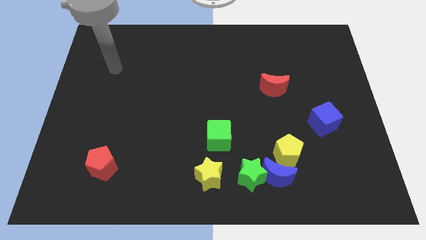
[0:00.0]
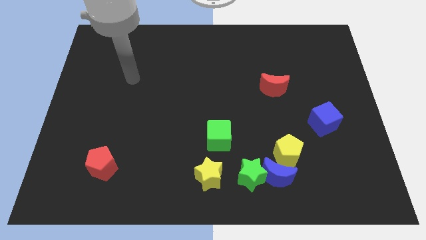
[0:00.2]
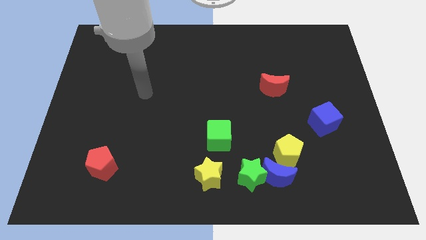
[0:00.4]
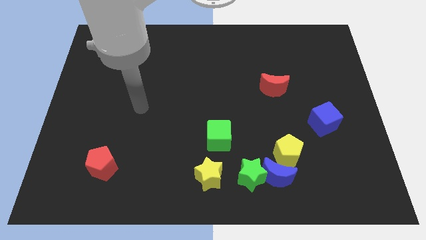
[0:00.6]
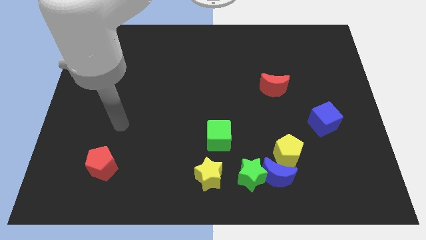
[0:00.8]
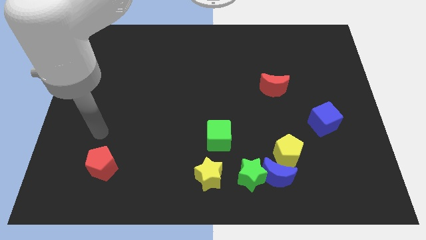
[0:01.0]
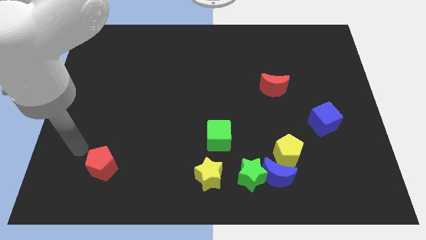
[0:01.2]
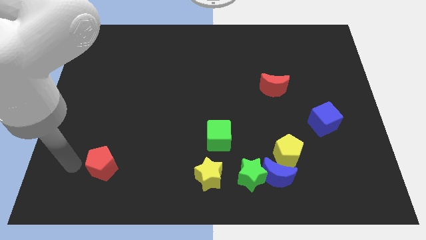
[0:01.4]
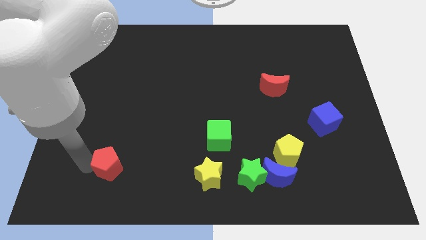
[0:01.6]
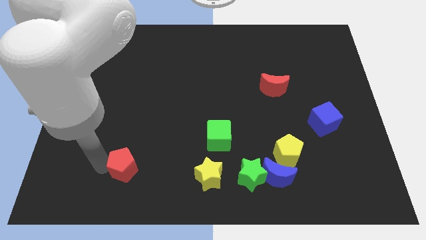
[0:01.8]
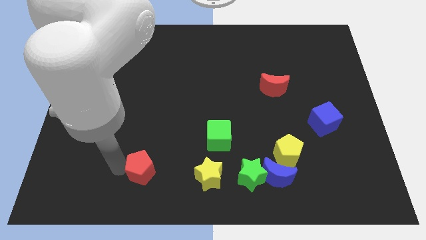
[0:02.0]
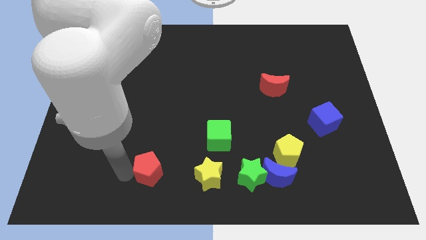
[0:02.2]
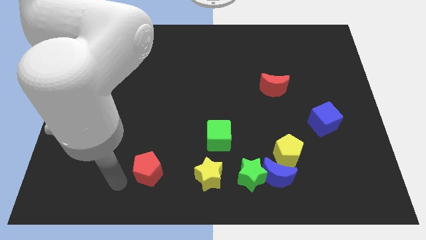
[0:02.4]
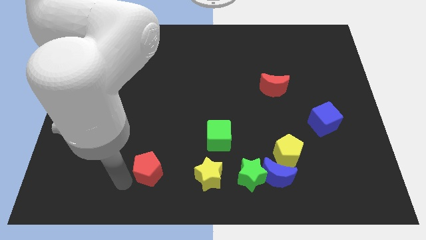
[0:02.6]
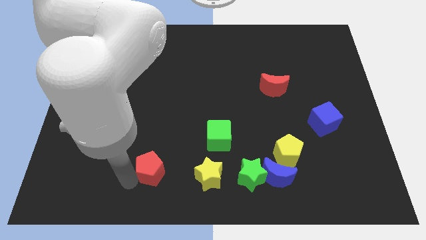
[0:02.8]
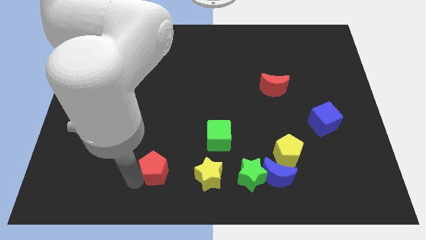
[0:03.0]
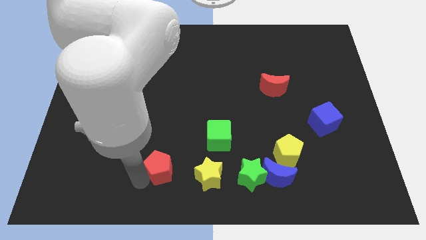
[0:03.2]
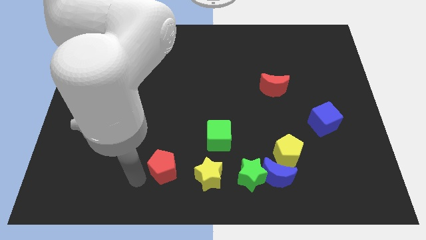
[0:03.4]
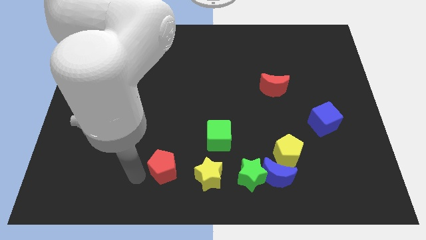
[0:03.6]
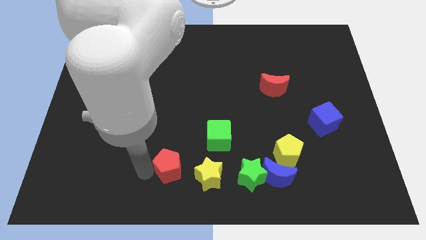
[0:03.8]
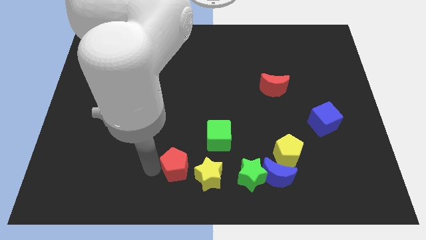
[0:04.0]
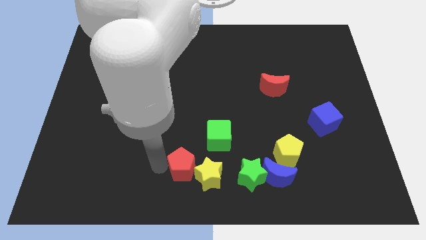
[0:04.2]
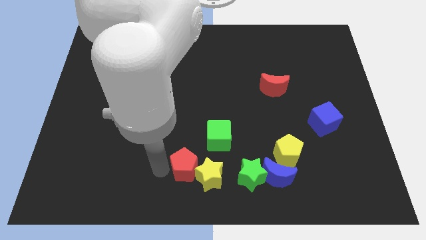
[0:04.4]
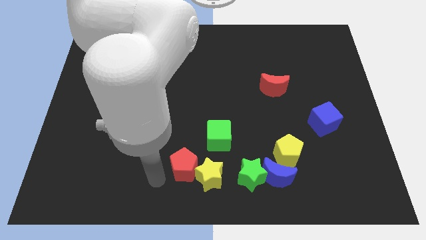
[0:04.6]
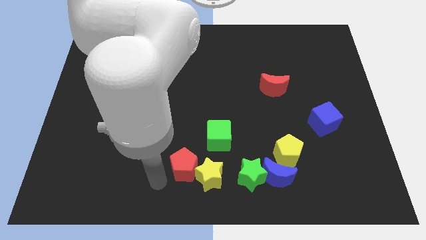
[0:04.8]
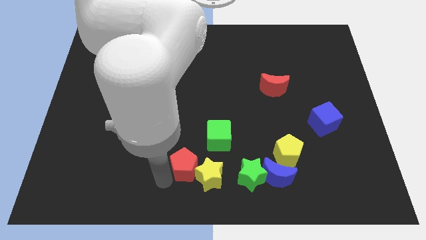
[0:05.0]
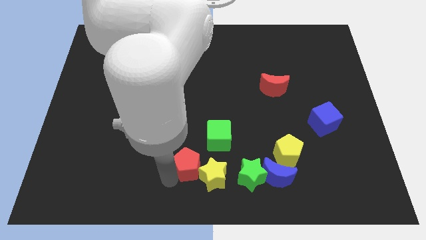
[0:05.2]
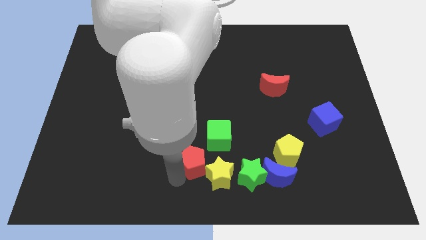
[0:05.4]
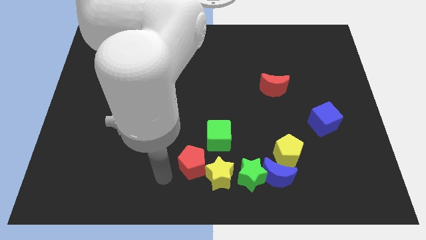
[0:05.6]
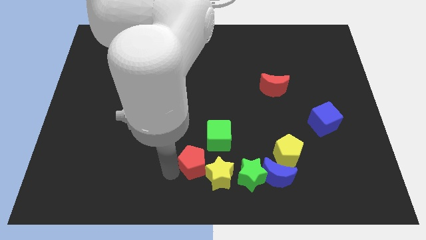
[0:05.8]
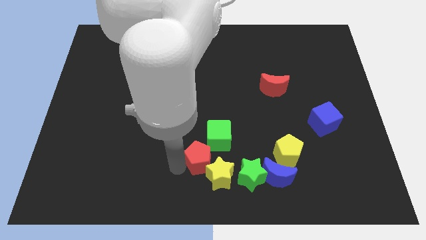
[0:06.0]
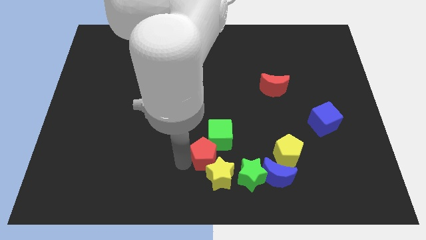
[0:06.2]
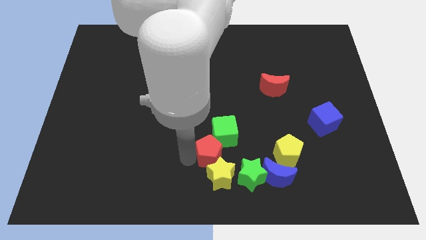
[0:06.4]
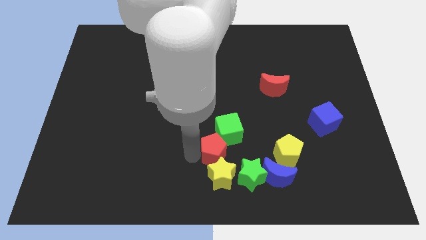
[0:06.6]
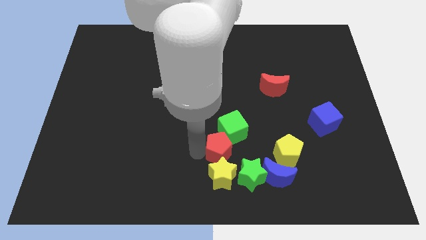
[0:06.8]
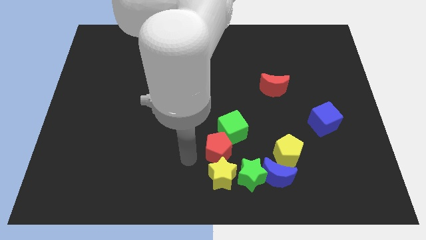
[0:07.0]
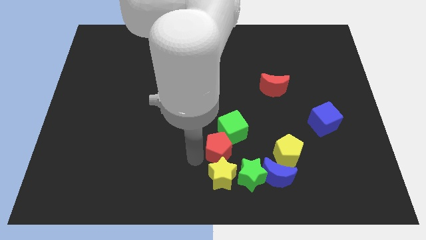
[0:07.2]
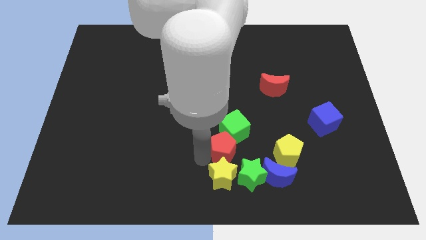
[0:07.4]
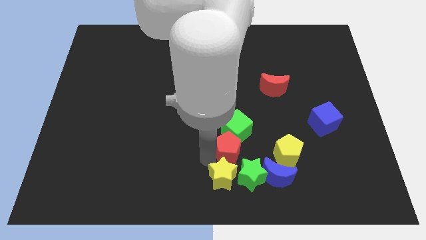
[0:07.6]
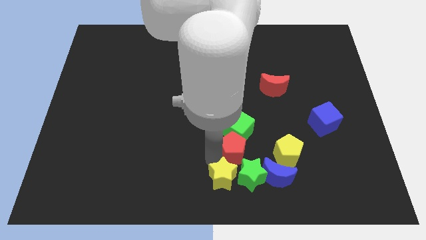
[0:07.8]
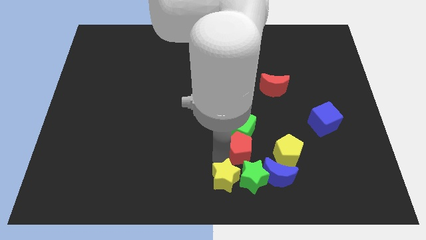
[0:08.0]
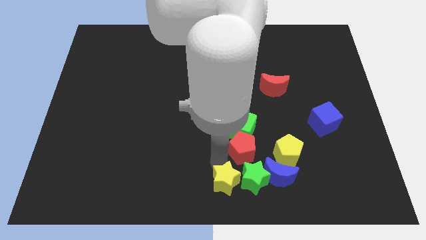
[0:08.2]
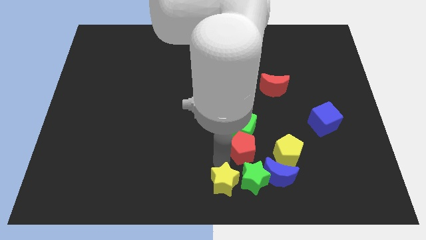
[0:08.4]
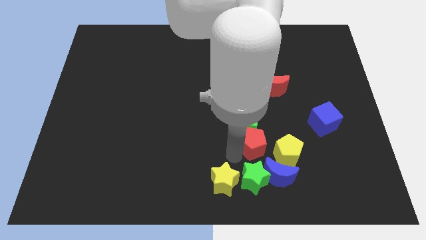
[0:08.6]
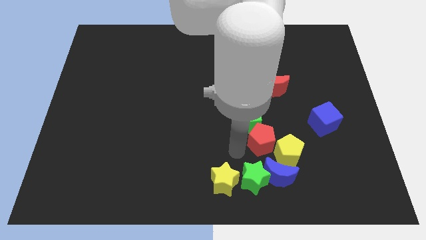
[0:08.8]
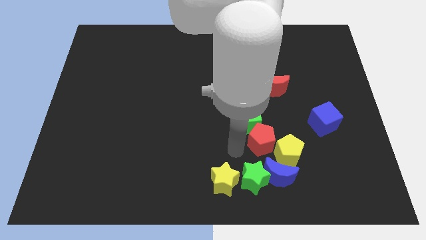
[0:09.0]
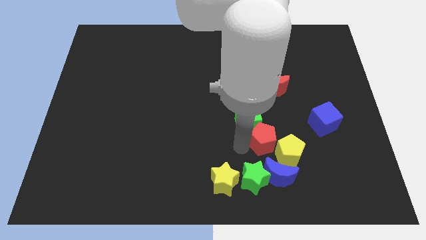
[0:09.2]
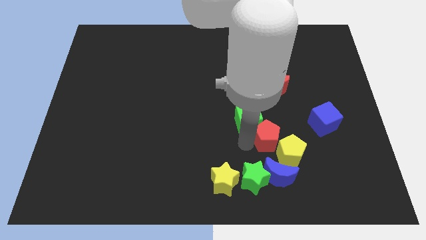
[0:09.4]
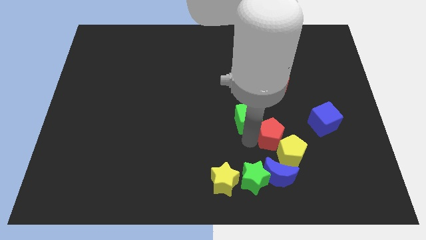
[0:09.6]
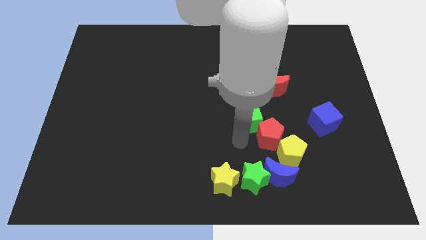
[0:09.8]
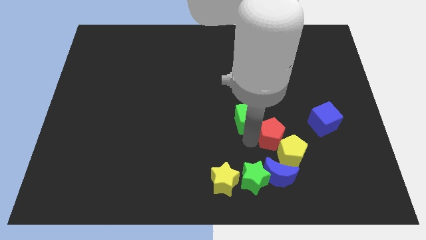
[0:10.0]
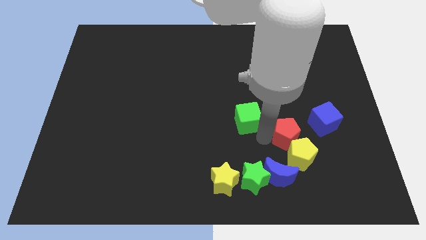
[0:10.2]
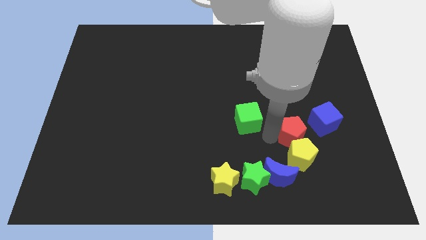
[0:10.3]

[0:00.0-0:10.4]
push the red pentagon to the top right of the blue moon

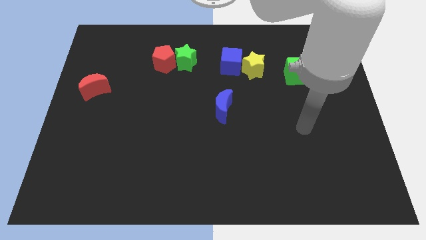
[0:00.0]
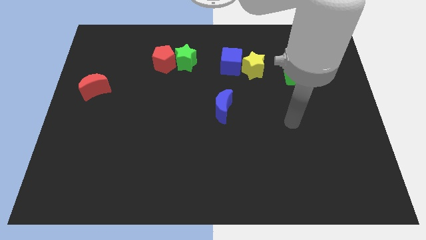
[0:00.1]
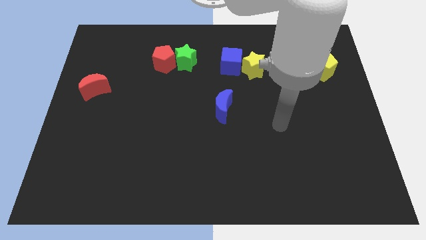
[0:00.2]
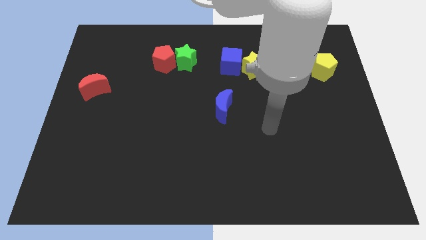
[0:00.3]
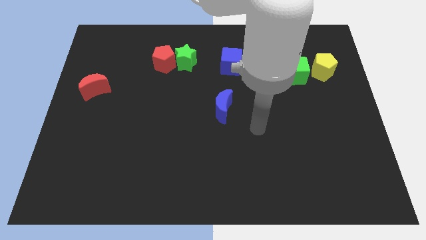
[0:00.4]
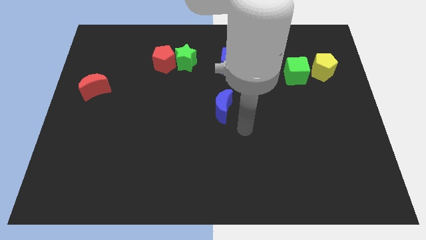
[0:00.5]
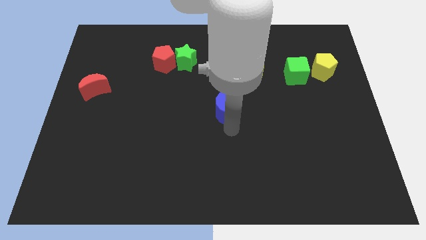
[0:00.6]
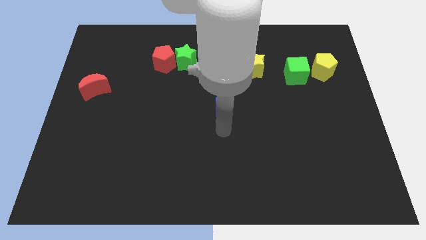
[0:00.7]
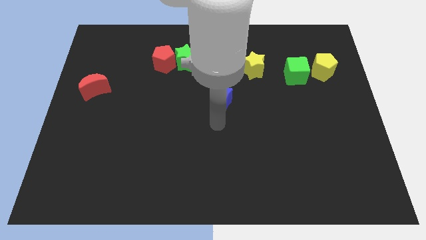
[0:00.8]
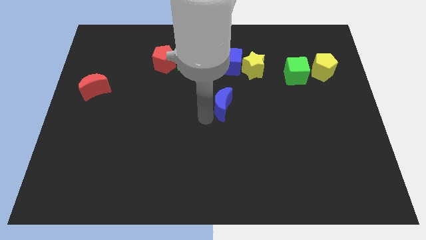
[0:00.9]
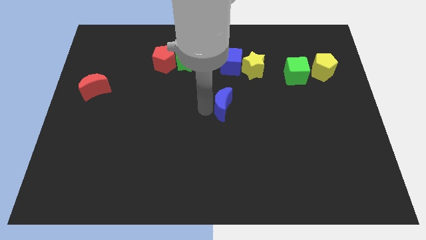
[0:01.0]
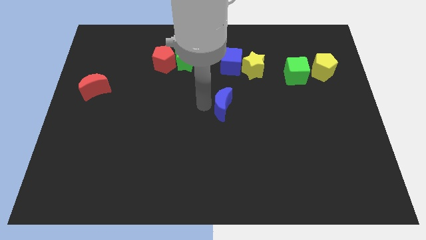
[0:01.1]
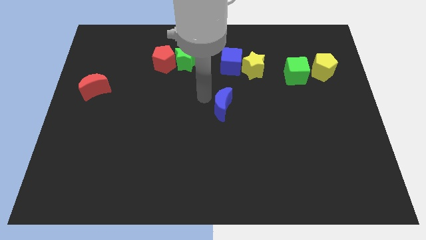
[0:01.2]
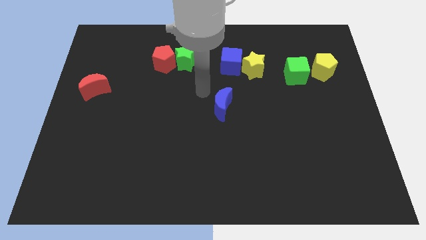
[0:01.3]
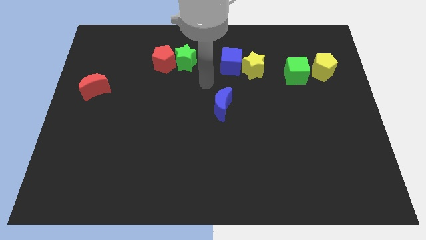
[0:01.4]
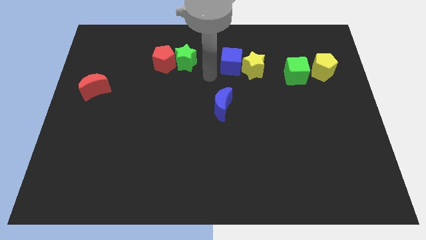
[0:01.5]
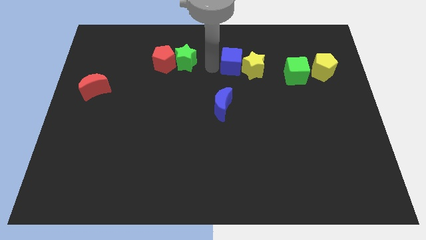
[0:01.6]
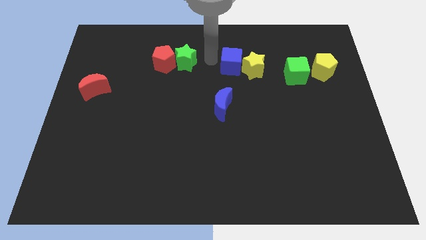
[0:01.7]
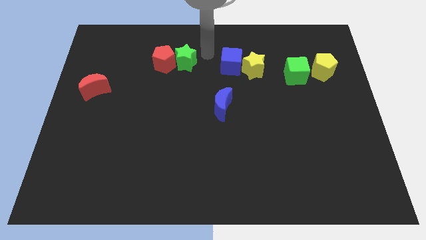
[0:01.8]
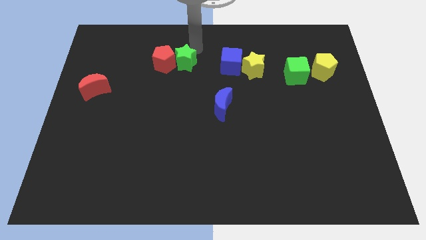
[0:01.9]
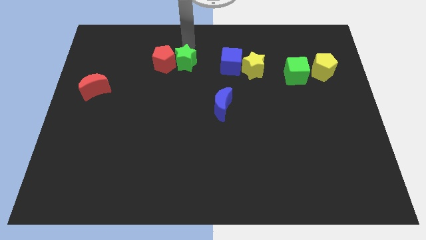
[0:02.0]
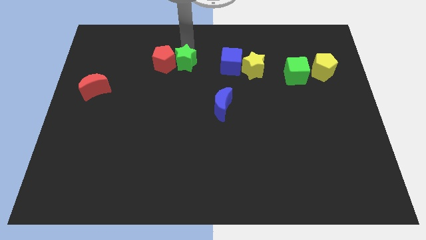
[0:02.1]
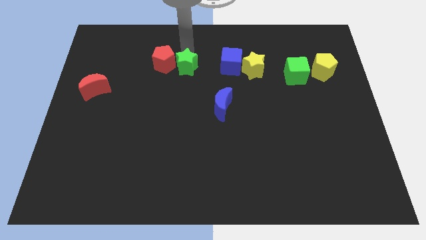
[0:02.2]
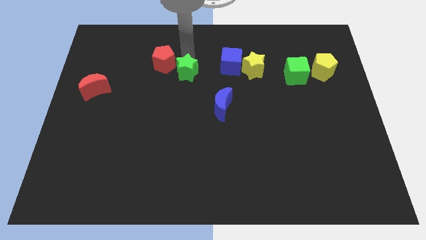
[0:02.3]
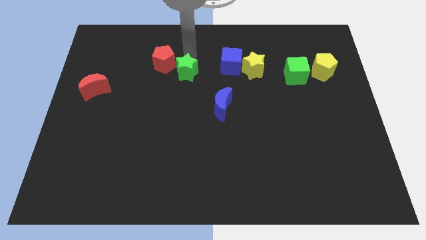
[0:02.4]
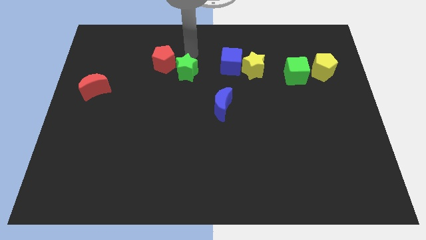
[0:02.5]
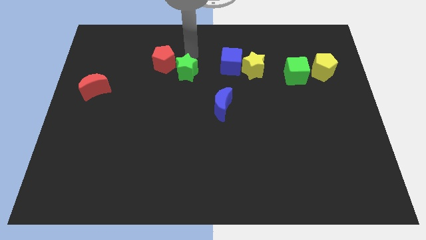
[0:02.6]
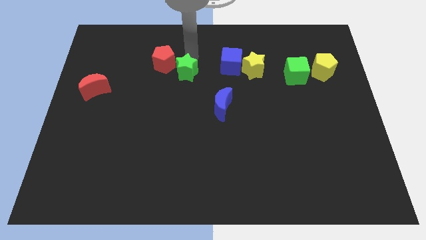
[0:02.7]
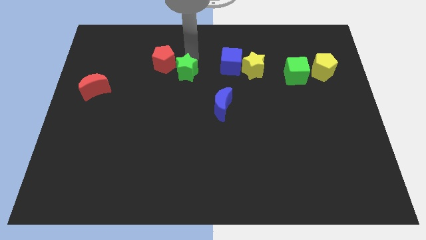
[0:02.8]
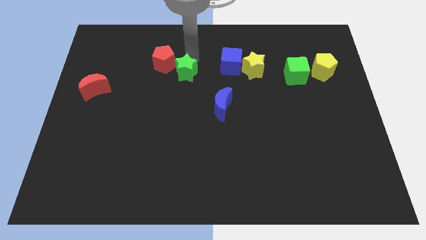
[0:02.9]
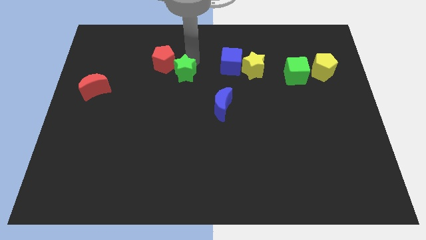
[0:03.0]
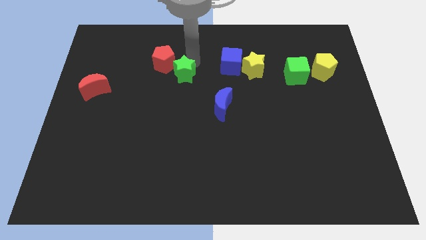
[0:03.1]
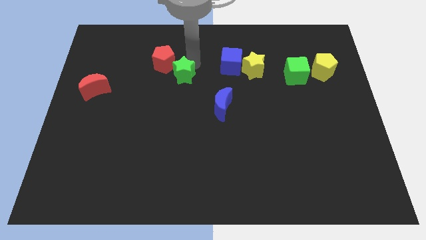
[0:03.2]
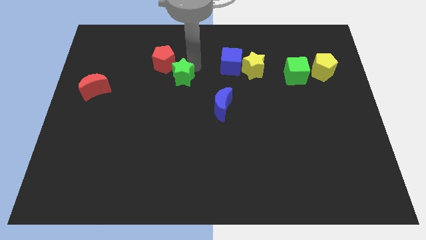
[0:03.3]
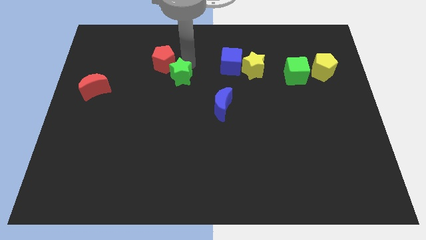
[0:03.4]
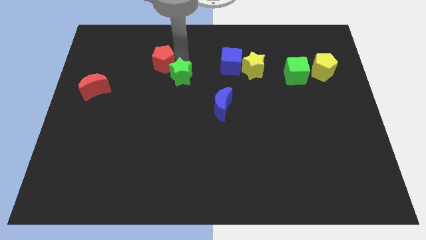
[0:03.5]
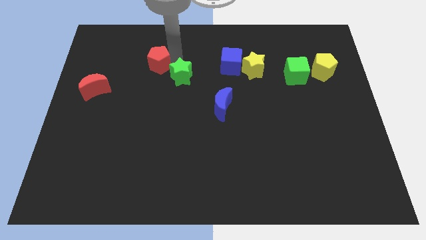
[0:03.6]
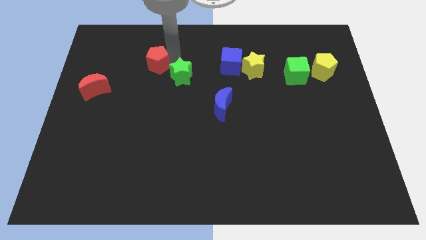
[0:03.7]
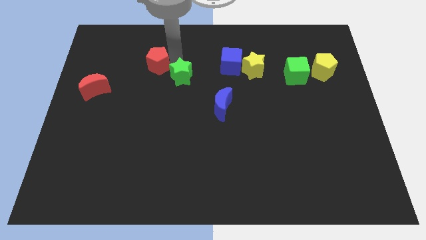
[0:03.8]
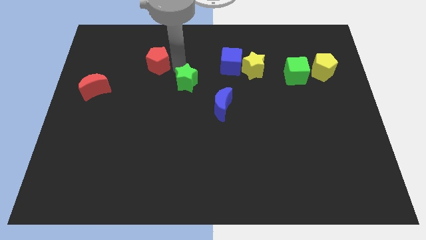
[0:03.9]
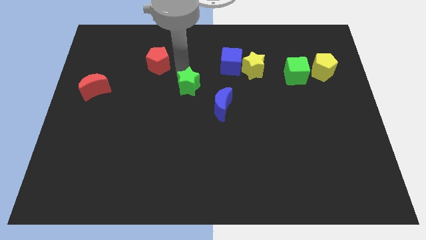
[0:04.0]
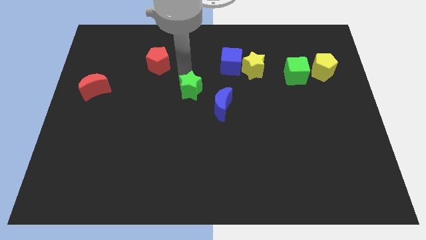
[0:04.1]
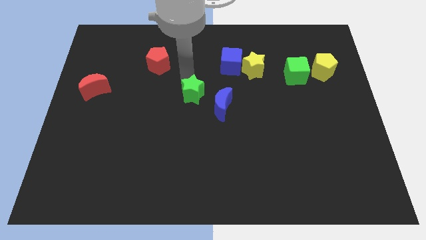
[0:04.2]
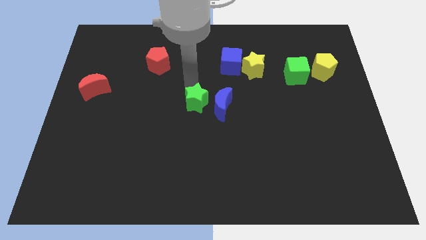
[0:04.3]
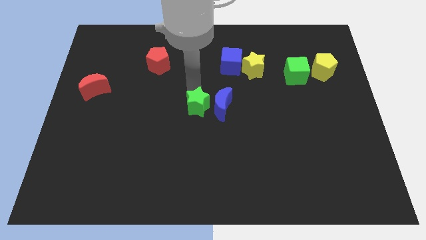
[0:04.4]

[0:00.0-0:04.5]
put the green star to the bottom left side of the blue moon
